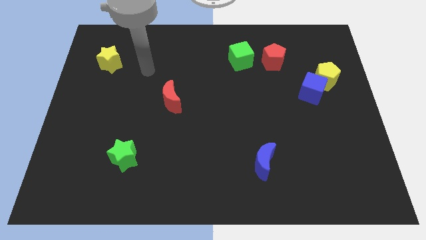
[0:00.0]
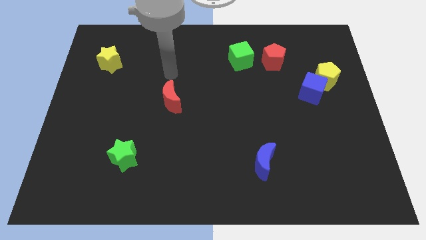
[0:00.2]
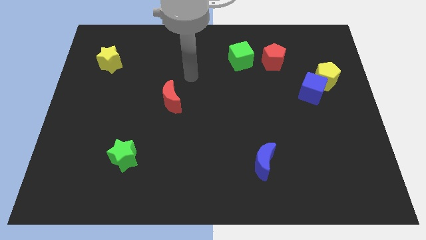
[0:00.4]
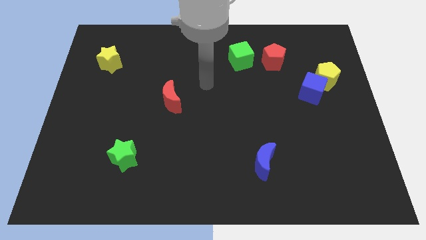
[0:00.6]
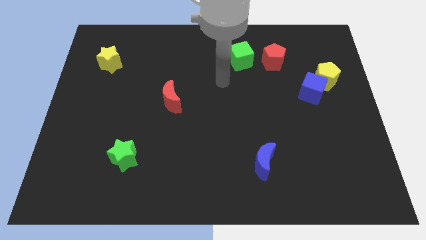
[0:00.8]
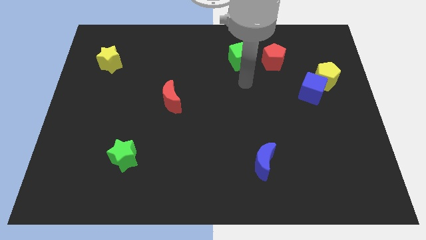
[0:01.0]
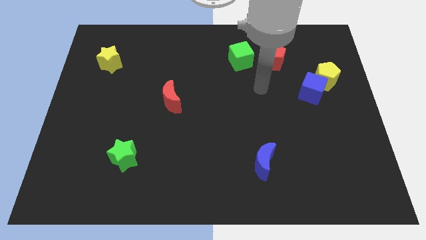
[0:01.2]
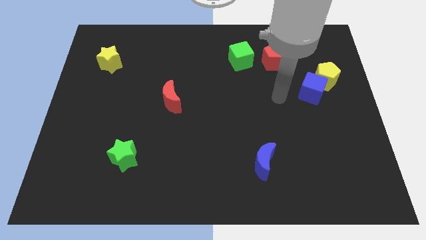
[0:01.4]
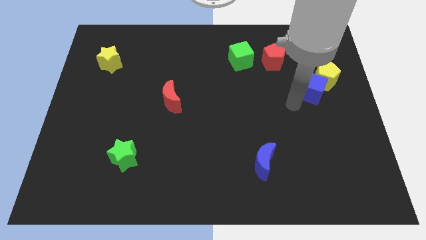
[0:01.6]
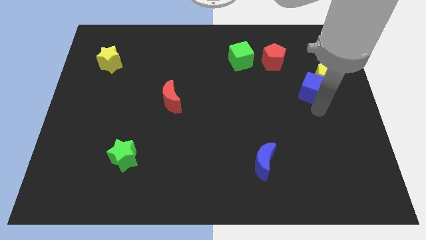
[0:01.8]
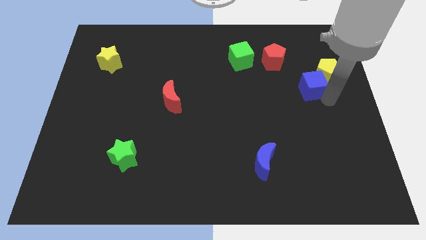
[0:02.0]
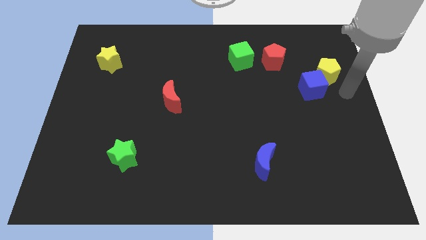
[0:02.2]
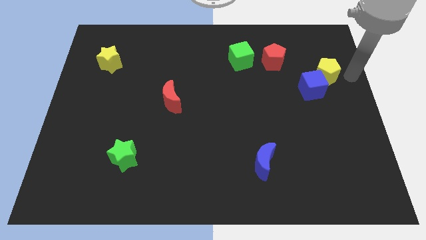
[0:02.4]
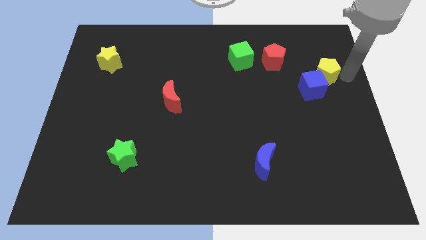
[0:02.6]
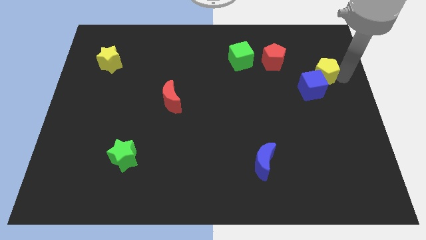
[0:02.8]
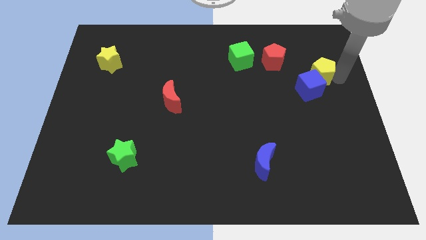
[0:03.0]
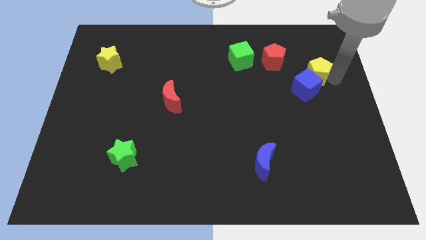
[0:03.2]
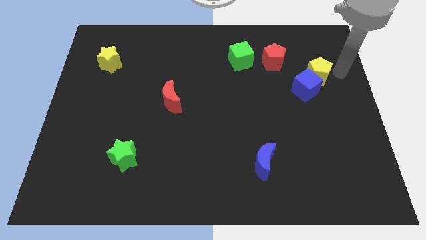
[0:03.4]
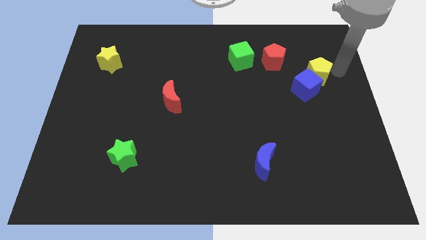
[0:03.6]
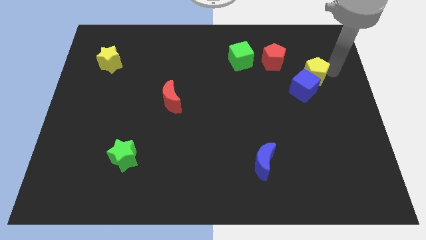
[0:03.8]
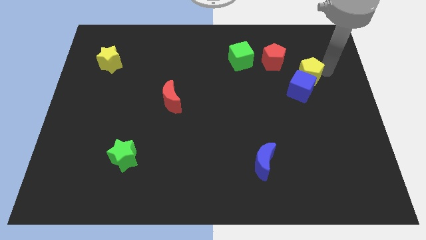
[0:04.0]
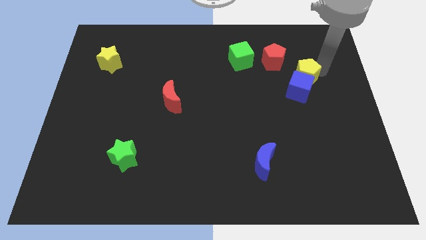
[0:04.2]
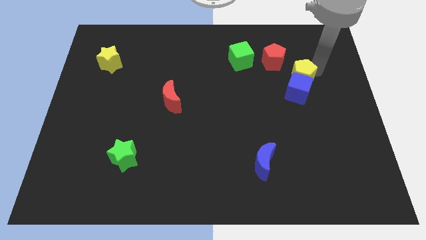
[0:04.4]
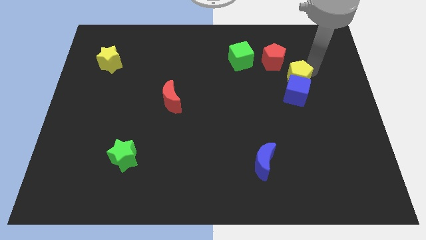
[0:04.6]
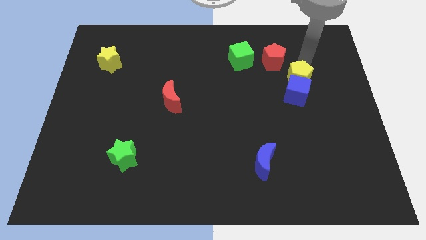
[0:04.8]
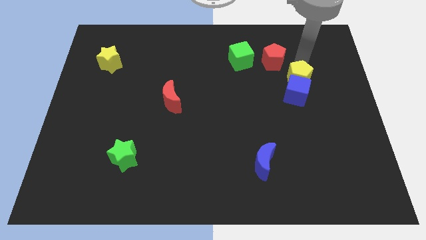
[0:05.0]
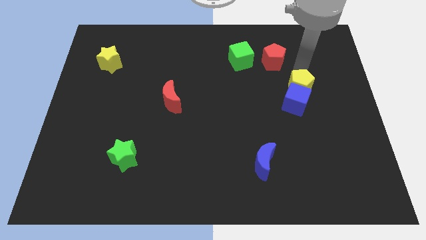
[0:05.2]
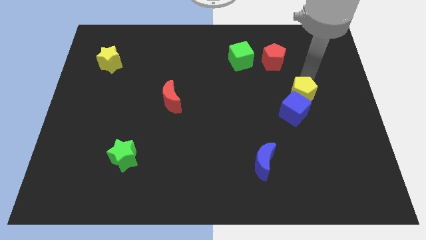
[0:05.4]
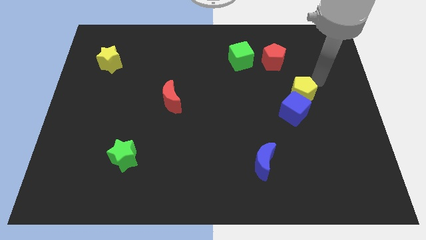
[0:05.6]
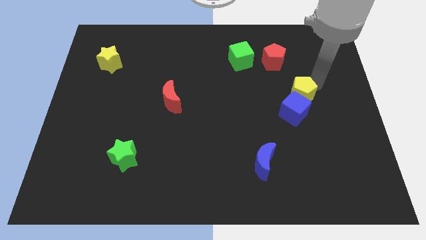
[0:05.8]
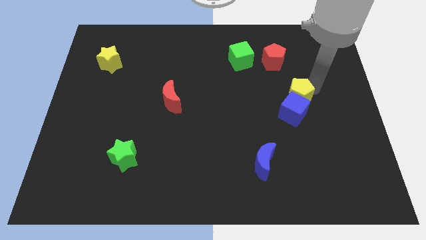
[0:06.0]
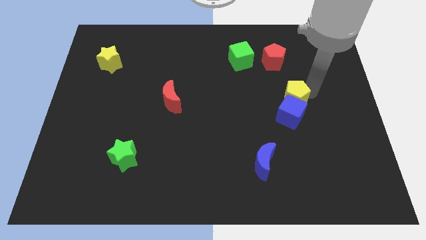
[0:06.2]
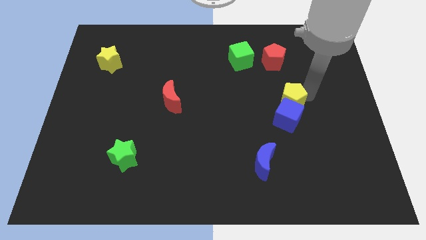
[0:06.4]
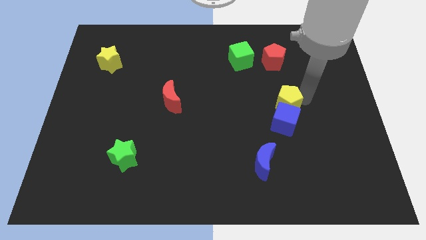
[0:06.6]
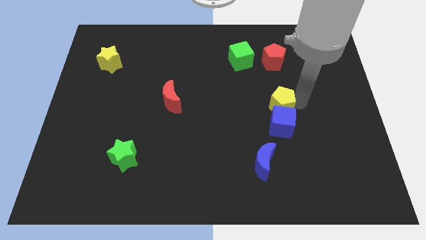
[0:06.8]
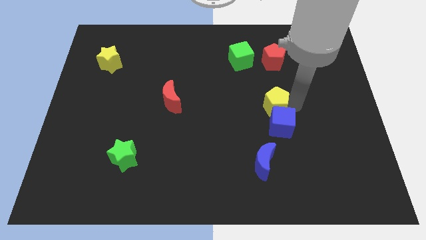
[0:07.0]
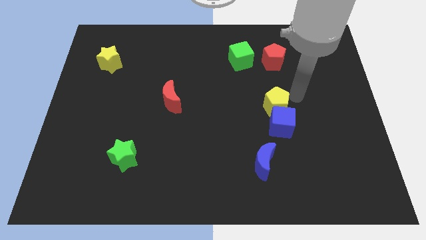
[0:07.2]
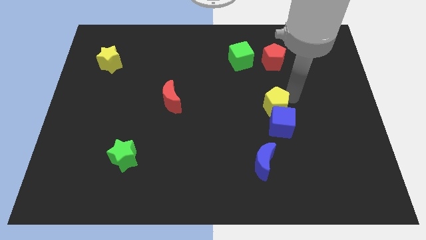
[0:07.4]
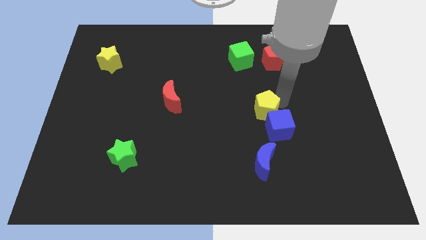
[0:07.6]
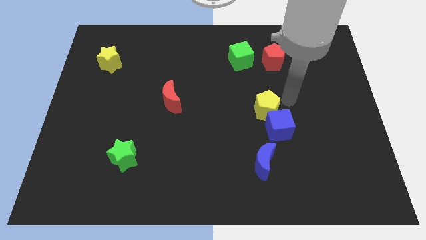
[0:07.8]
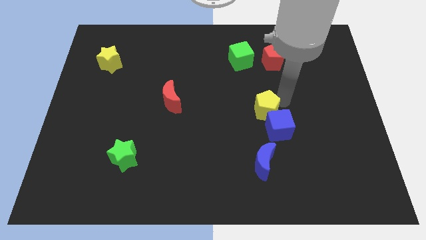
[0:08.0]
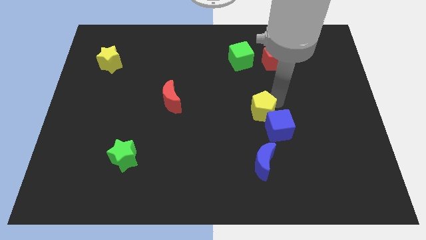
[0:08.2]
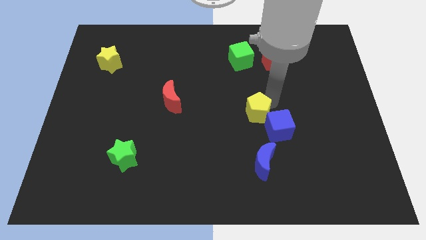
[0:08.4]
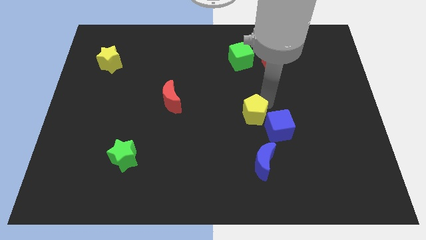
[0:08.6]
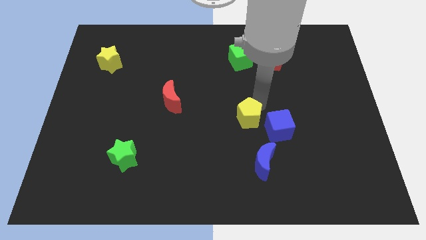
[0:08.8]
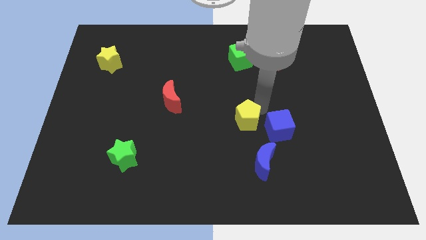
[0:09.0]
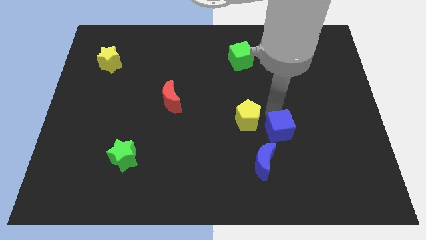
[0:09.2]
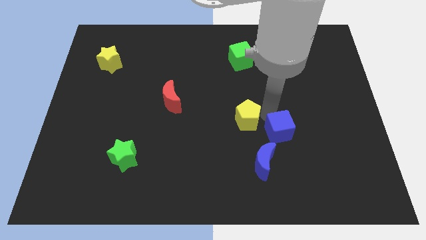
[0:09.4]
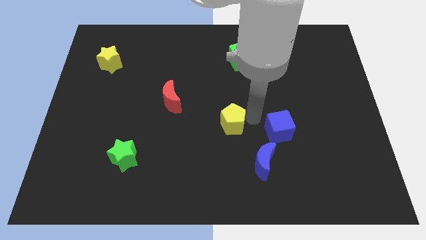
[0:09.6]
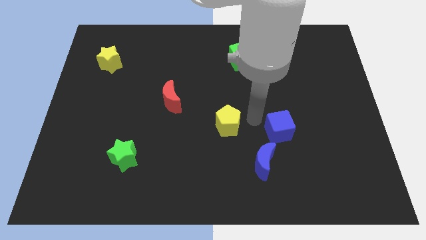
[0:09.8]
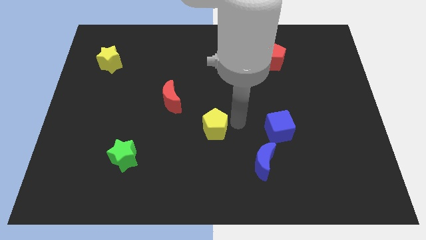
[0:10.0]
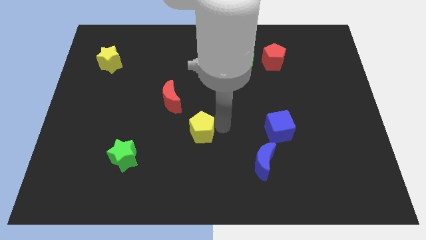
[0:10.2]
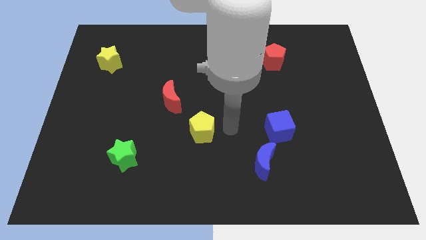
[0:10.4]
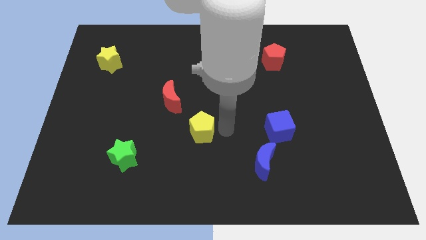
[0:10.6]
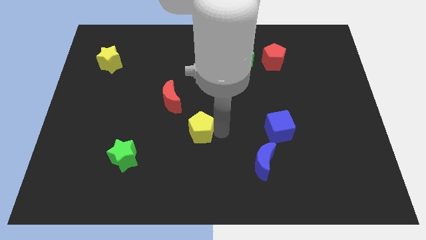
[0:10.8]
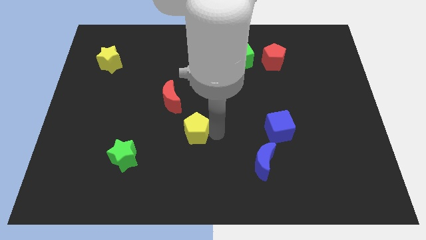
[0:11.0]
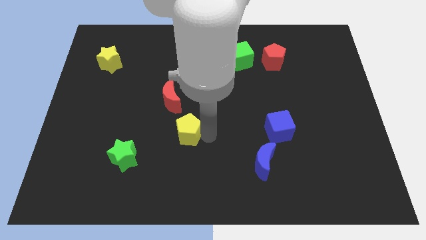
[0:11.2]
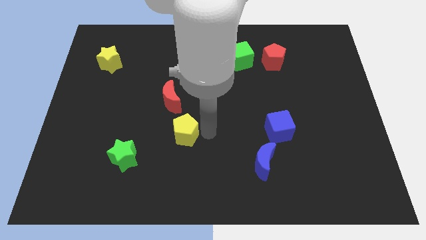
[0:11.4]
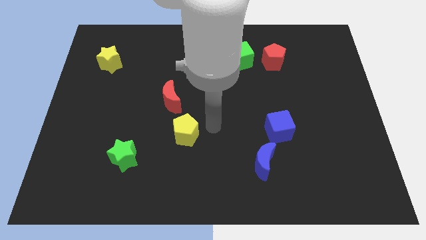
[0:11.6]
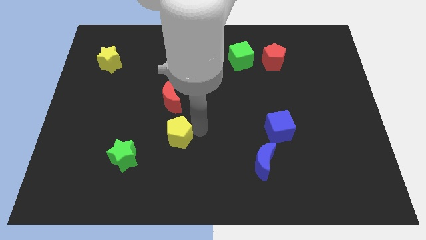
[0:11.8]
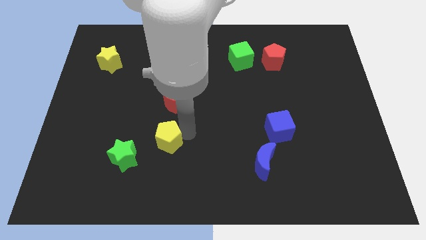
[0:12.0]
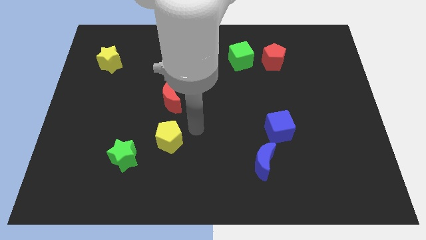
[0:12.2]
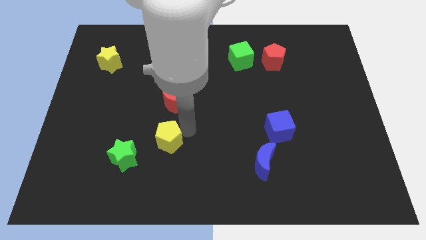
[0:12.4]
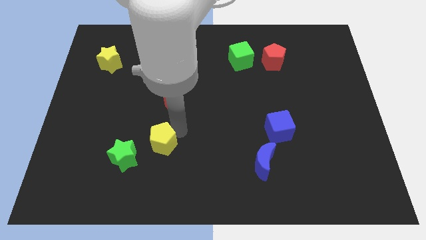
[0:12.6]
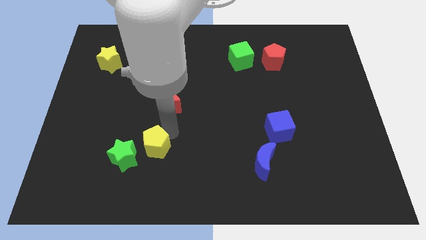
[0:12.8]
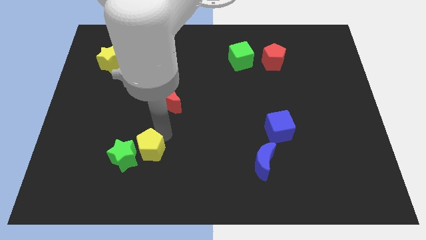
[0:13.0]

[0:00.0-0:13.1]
push the yellow pentagon next to the green star

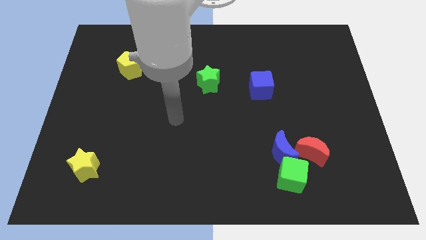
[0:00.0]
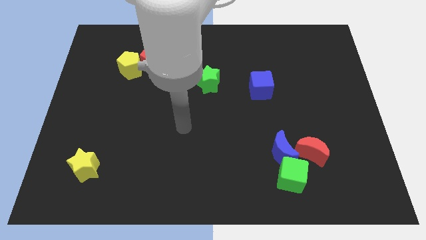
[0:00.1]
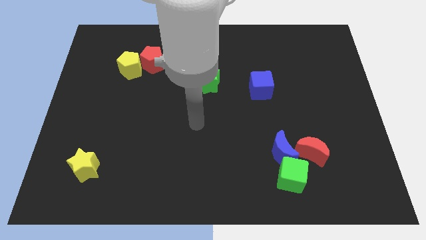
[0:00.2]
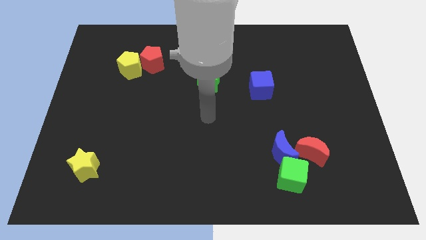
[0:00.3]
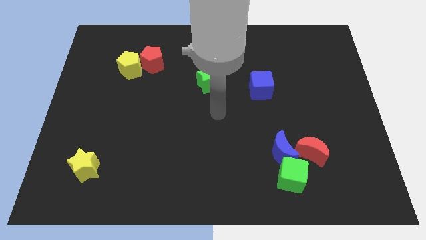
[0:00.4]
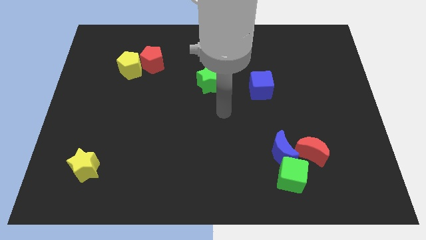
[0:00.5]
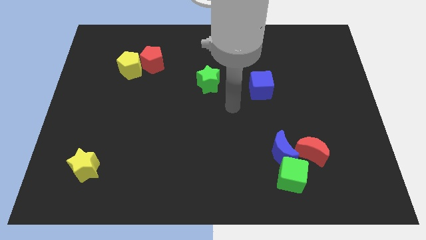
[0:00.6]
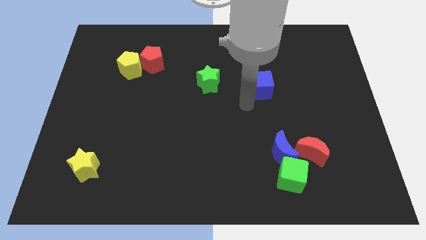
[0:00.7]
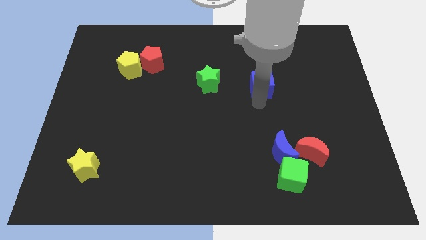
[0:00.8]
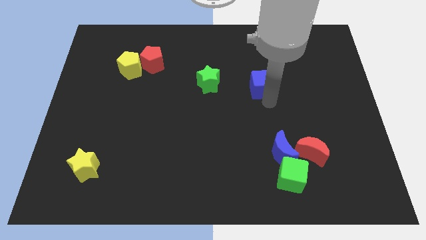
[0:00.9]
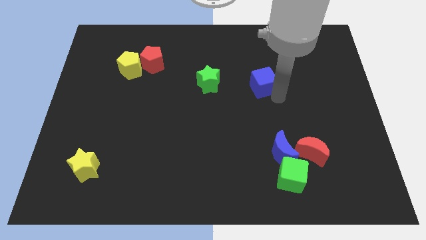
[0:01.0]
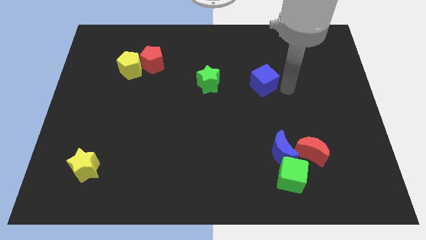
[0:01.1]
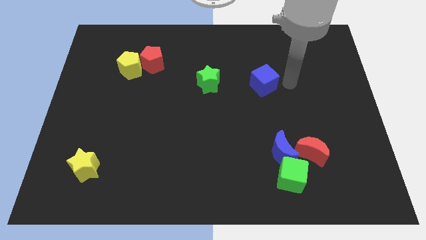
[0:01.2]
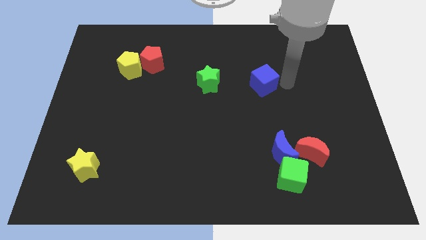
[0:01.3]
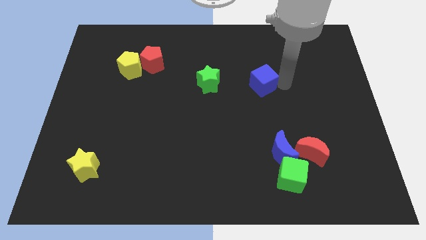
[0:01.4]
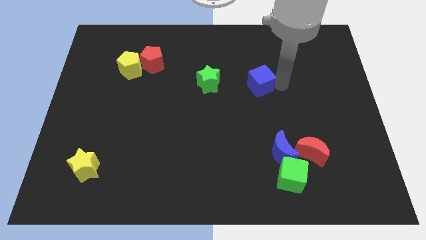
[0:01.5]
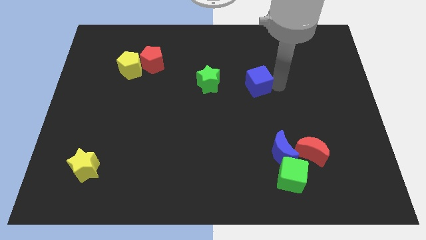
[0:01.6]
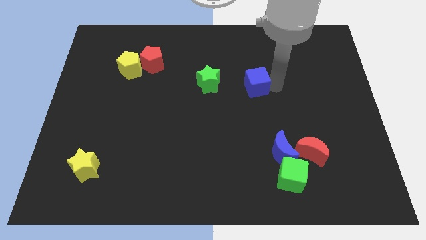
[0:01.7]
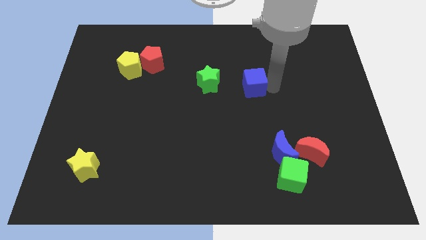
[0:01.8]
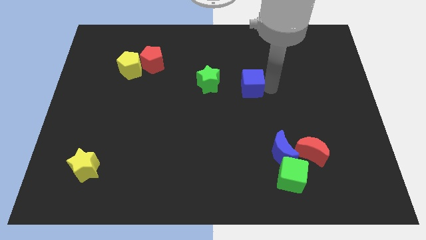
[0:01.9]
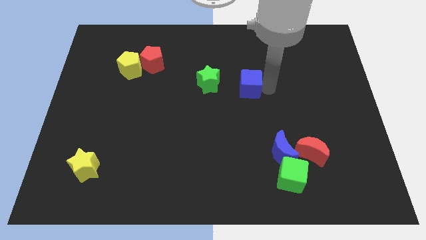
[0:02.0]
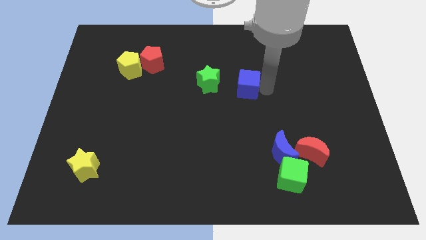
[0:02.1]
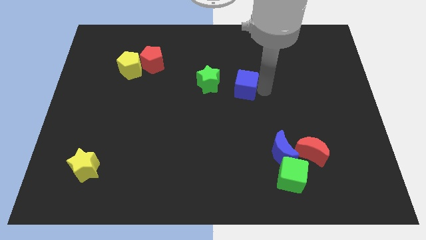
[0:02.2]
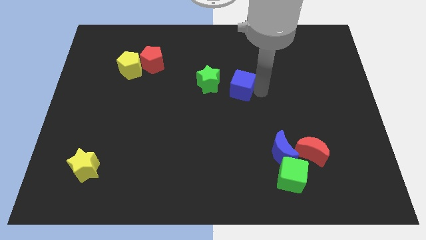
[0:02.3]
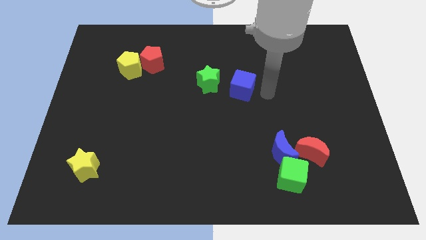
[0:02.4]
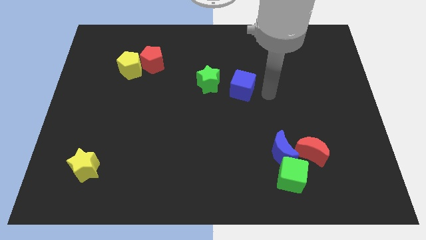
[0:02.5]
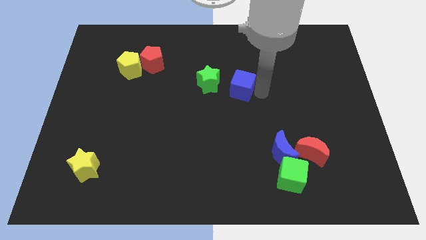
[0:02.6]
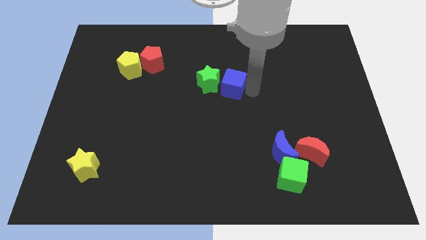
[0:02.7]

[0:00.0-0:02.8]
move the blue cube towards the green star
